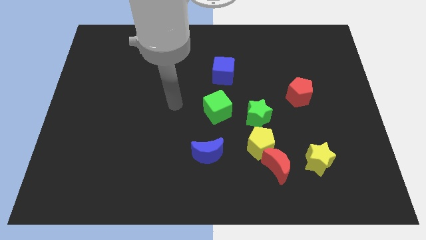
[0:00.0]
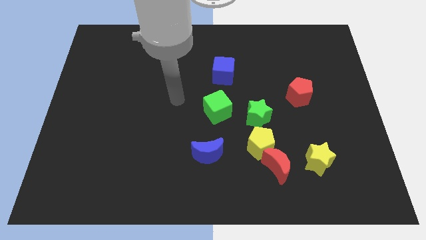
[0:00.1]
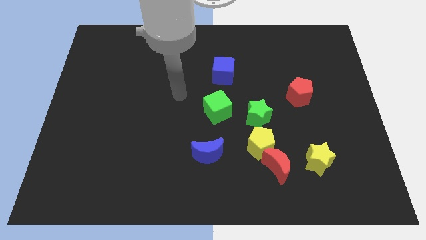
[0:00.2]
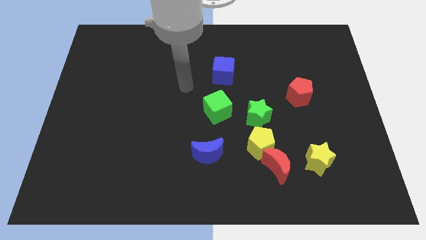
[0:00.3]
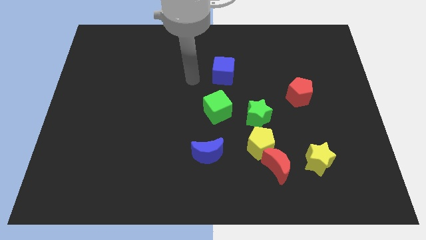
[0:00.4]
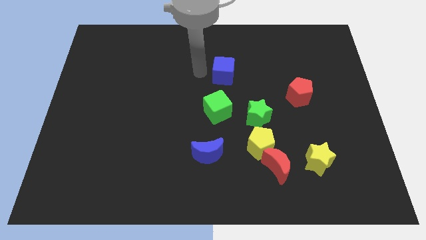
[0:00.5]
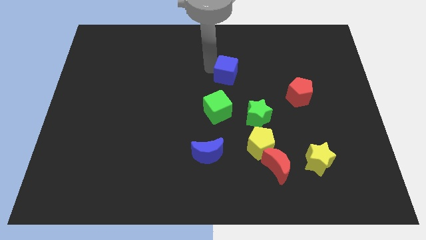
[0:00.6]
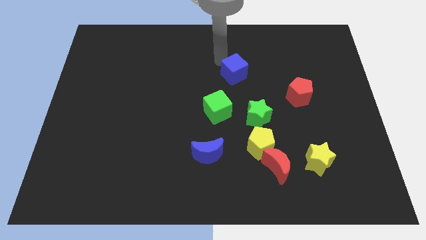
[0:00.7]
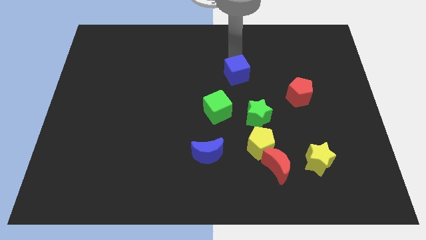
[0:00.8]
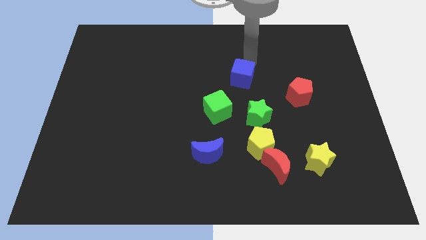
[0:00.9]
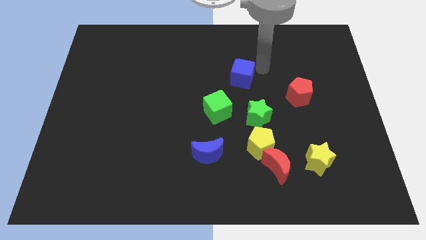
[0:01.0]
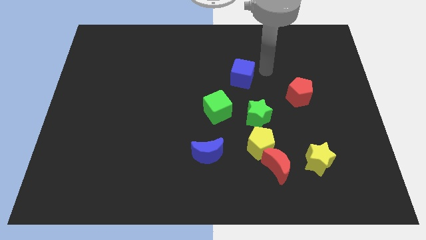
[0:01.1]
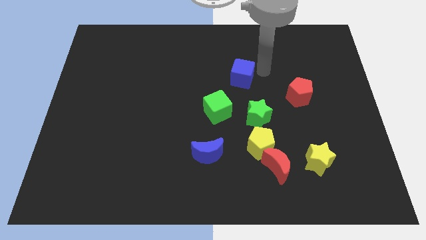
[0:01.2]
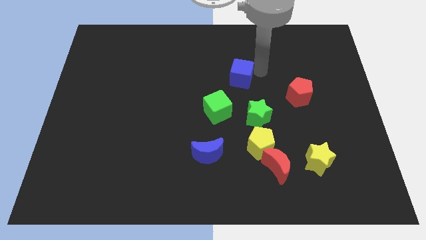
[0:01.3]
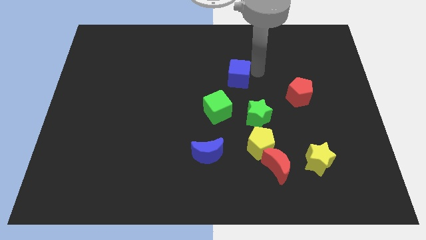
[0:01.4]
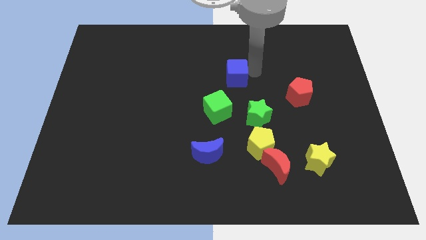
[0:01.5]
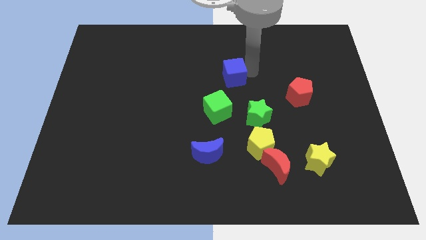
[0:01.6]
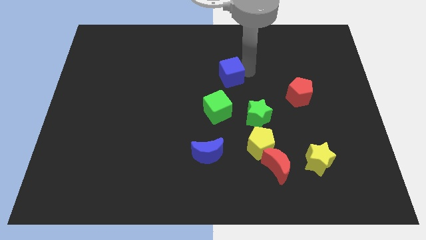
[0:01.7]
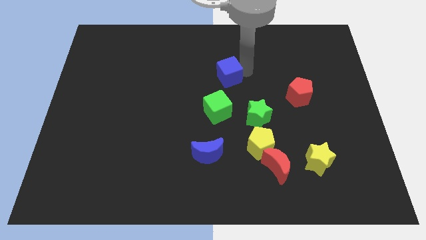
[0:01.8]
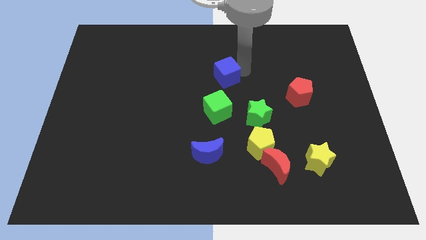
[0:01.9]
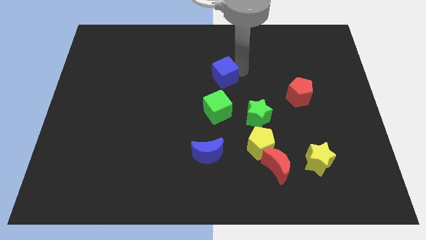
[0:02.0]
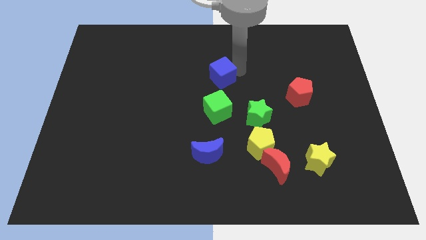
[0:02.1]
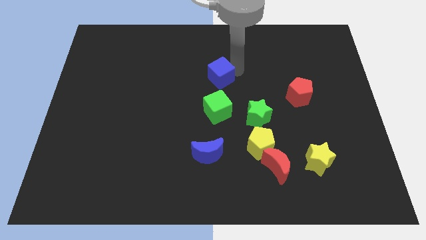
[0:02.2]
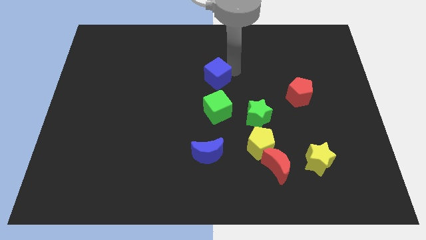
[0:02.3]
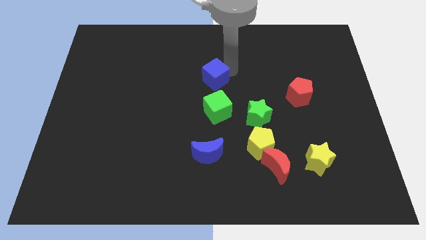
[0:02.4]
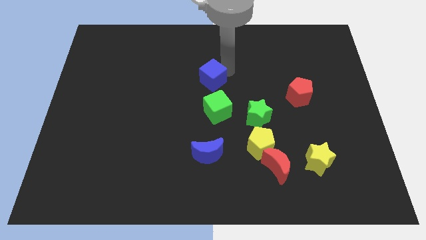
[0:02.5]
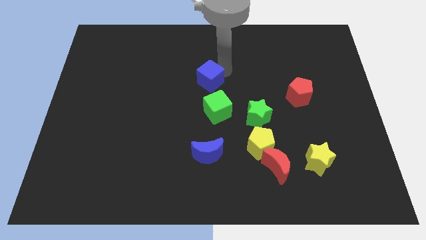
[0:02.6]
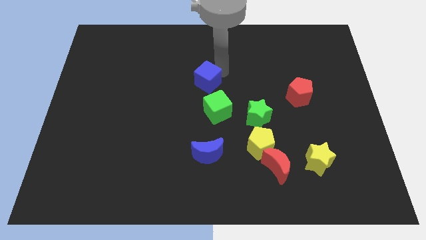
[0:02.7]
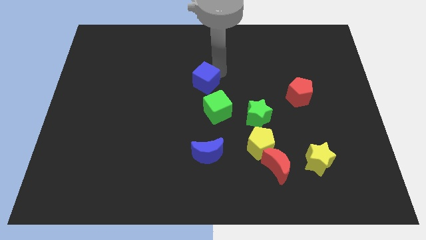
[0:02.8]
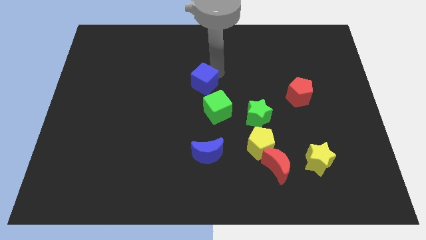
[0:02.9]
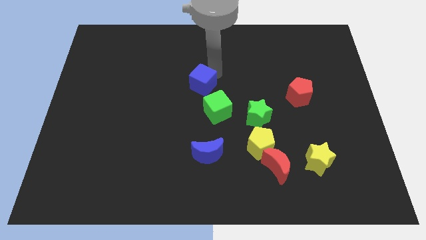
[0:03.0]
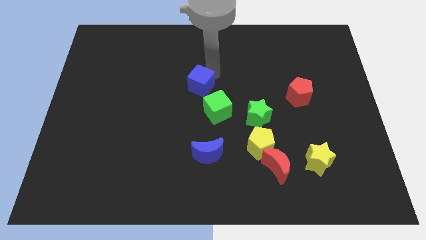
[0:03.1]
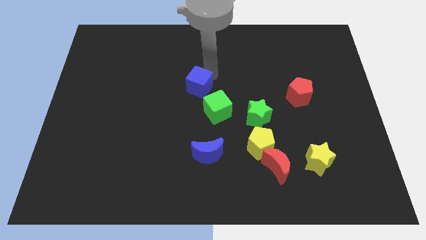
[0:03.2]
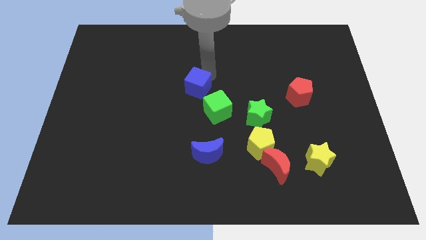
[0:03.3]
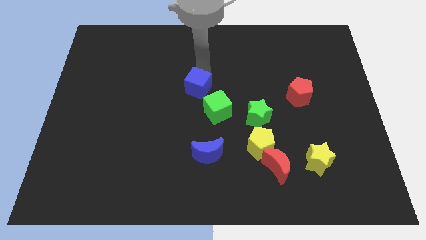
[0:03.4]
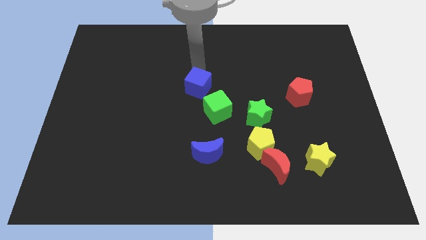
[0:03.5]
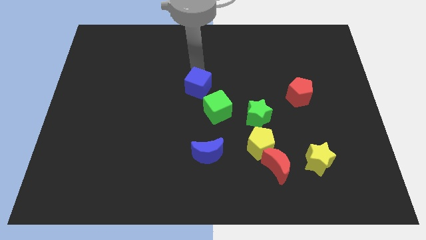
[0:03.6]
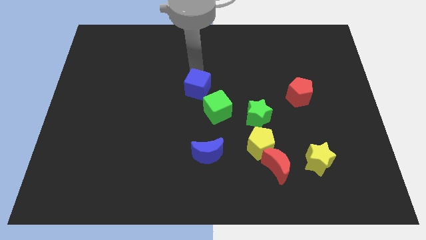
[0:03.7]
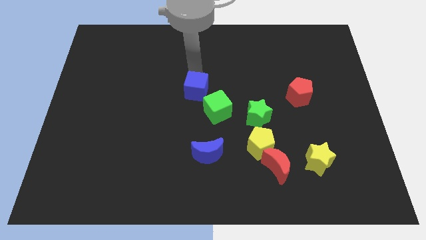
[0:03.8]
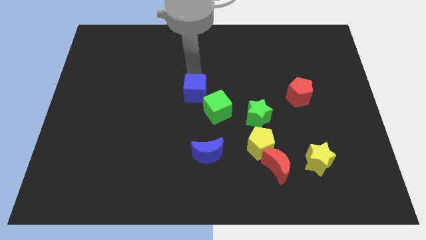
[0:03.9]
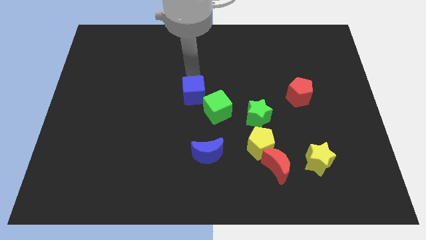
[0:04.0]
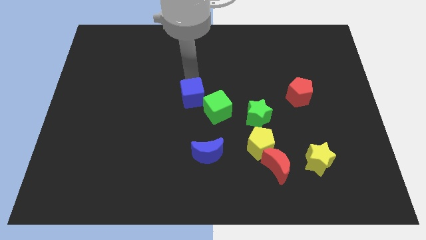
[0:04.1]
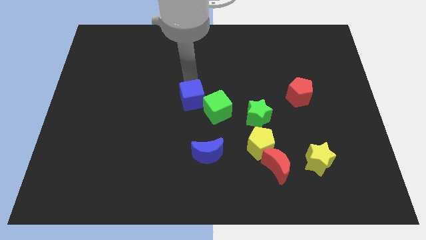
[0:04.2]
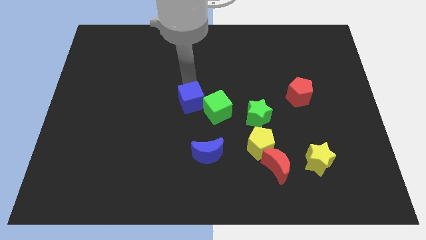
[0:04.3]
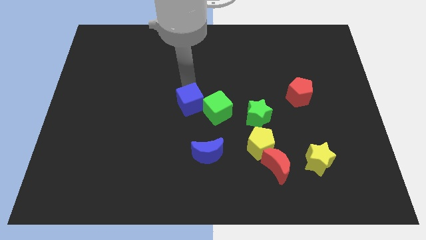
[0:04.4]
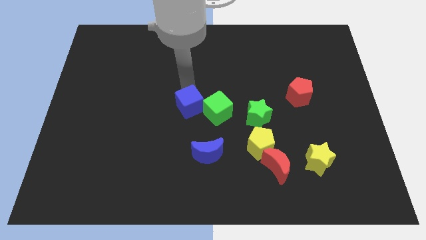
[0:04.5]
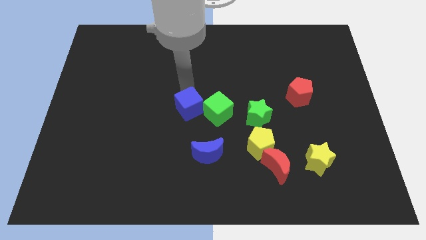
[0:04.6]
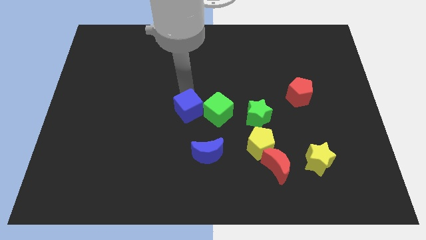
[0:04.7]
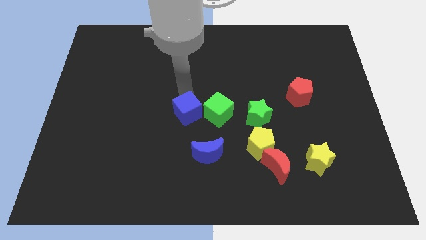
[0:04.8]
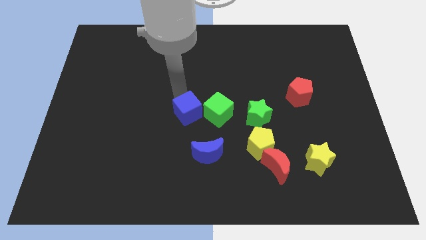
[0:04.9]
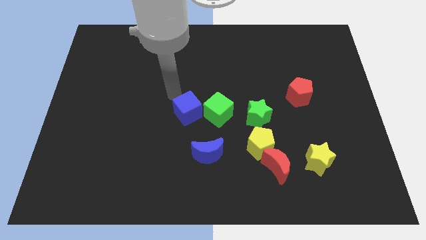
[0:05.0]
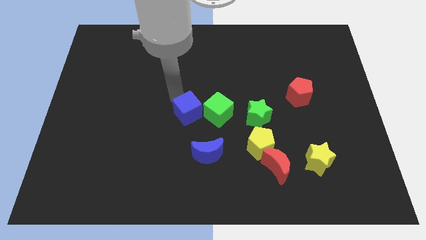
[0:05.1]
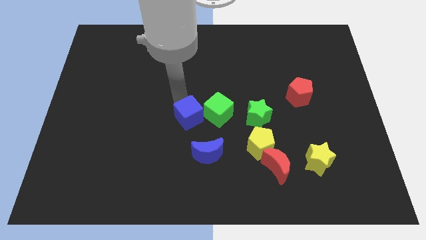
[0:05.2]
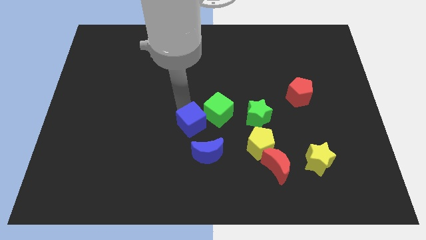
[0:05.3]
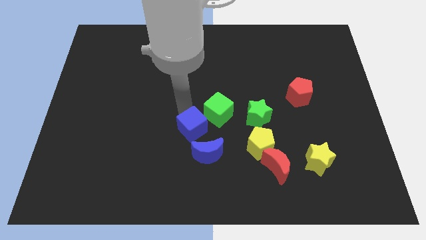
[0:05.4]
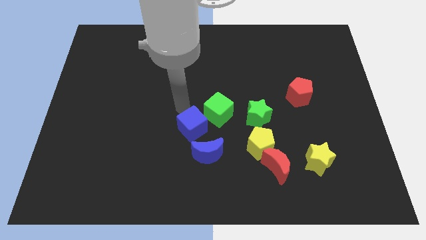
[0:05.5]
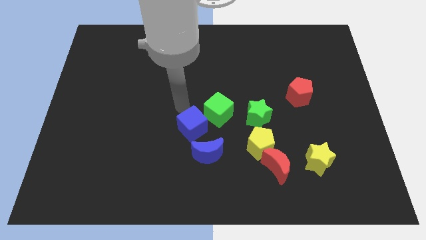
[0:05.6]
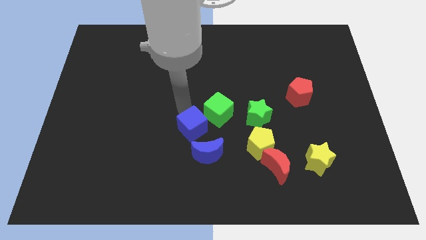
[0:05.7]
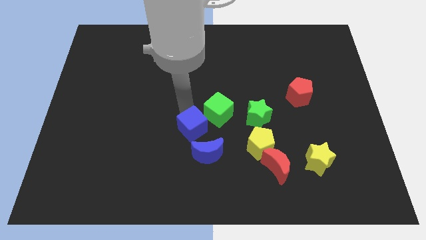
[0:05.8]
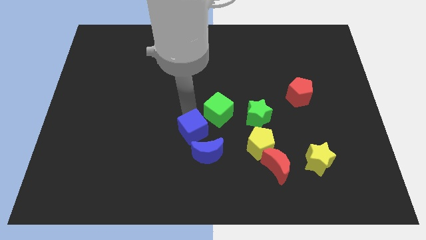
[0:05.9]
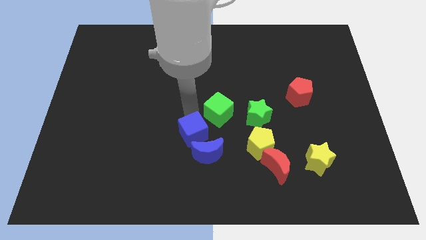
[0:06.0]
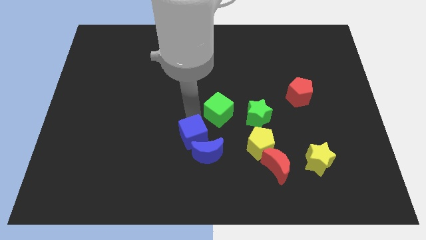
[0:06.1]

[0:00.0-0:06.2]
put the blue cube close to the blue moon

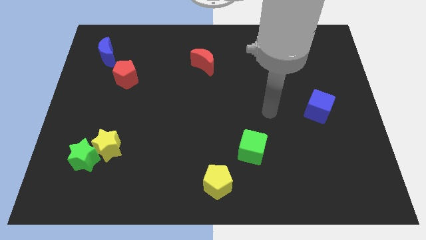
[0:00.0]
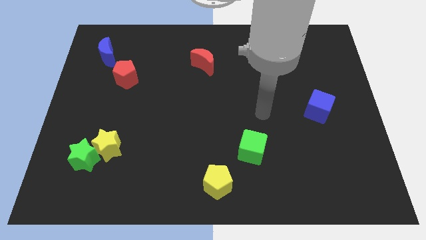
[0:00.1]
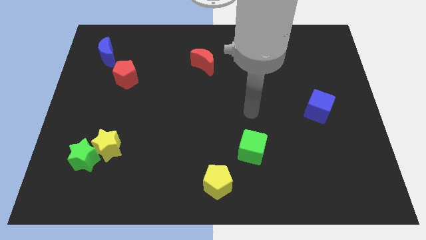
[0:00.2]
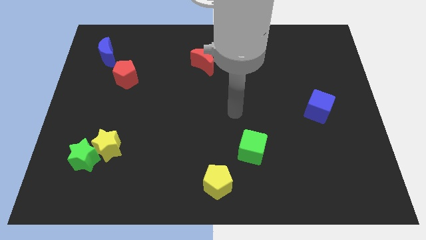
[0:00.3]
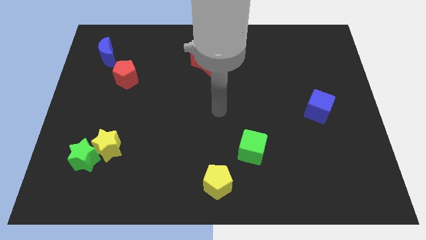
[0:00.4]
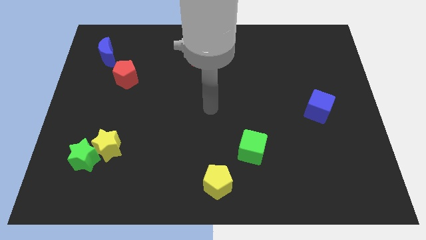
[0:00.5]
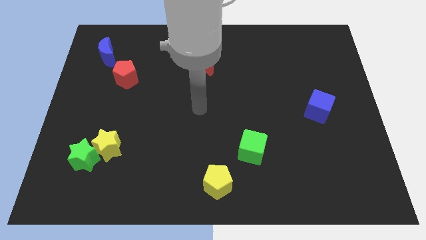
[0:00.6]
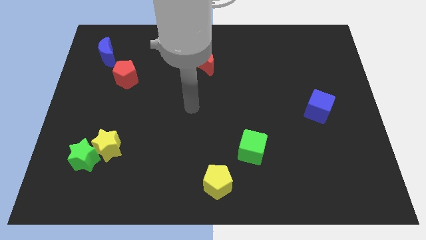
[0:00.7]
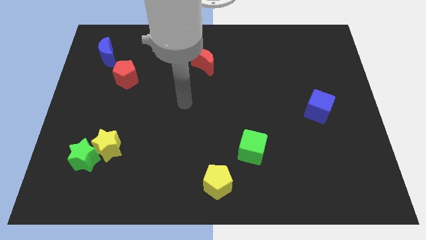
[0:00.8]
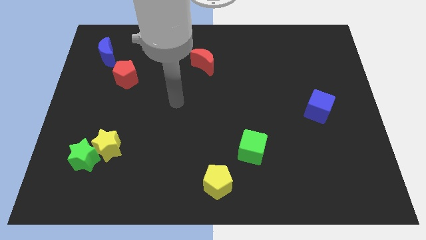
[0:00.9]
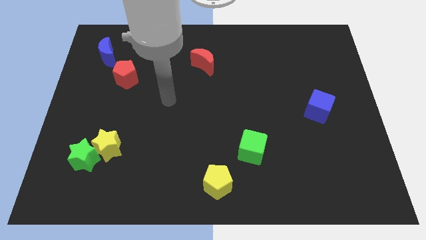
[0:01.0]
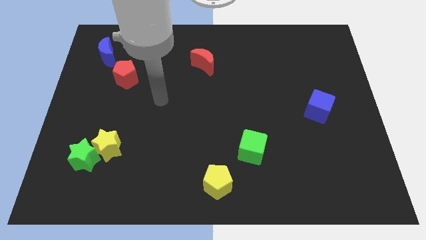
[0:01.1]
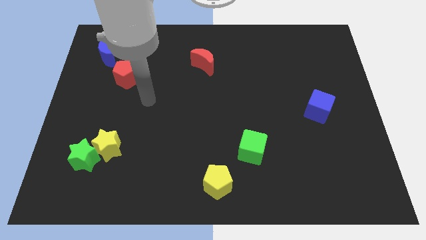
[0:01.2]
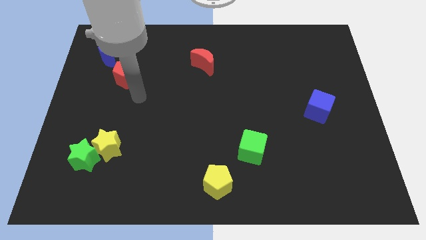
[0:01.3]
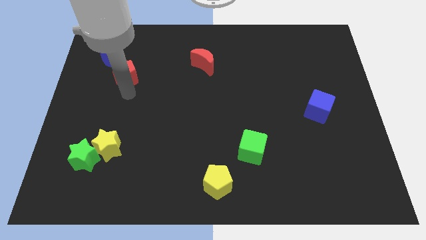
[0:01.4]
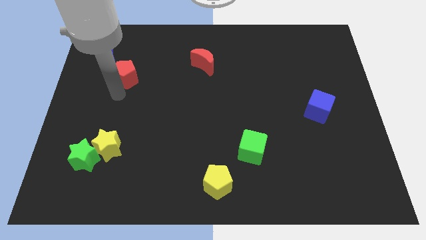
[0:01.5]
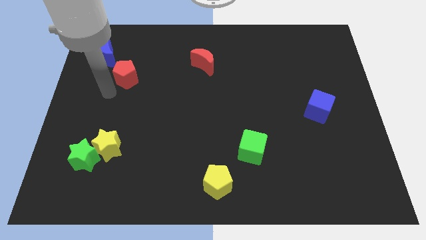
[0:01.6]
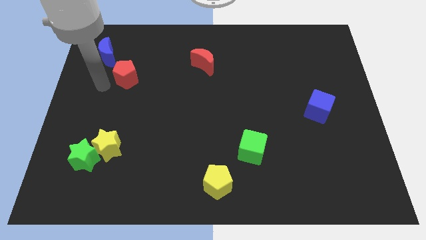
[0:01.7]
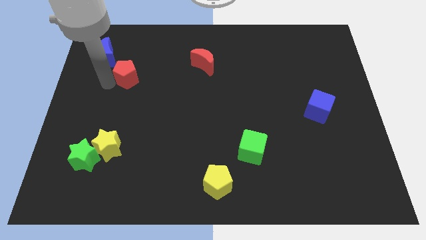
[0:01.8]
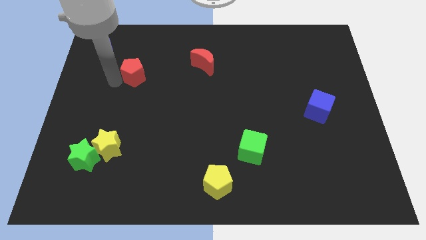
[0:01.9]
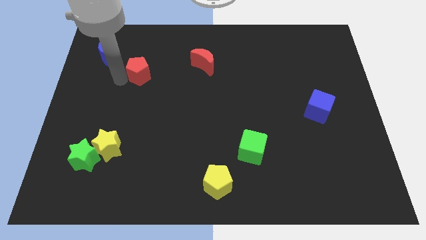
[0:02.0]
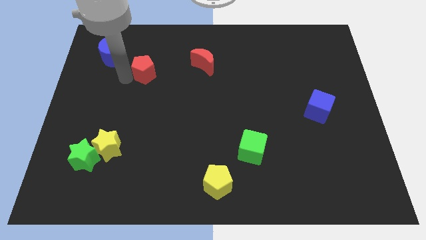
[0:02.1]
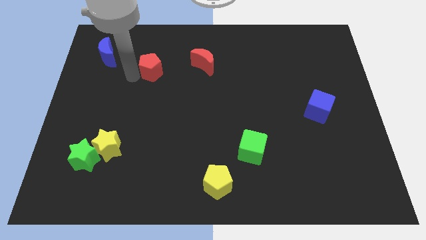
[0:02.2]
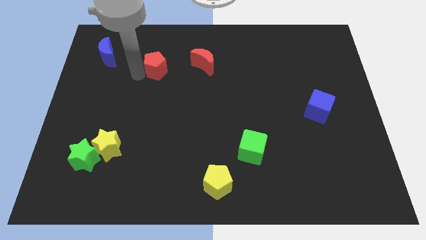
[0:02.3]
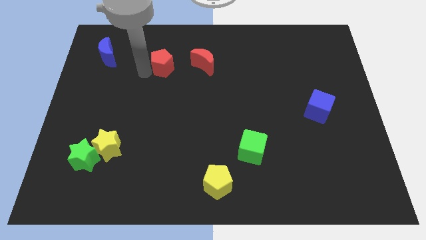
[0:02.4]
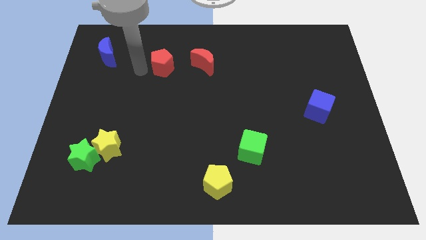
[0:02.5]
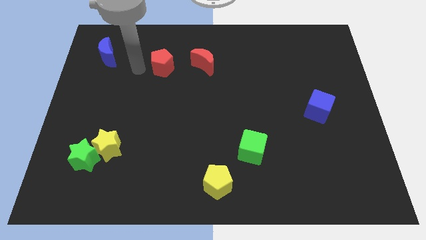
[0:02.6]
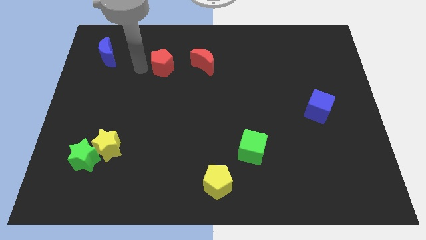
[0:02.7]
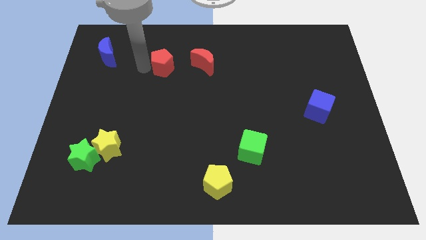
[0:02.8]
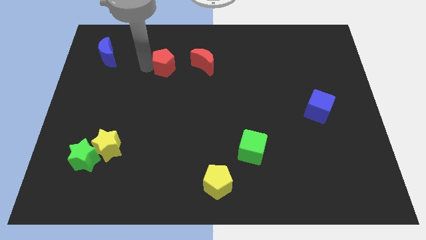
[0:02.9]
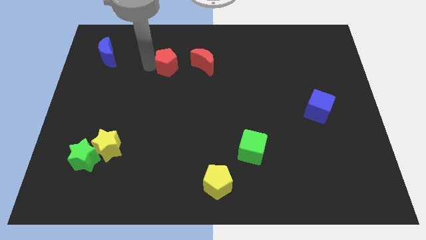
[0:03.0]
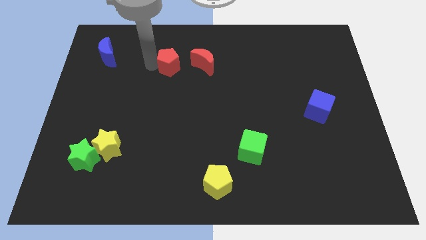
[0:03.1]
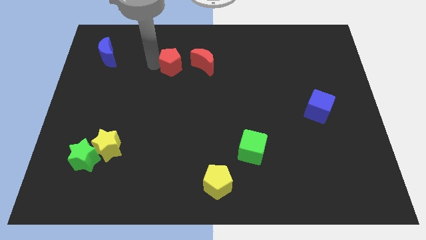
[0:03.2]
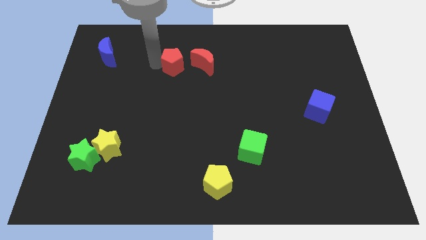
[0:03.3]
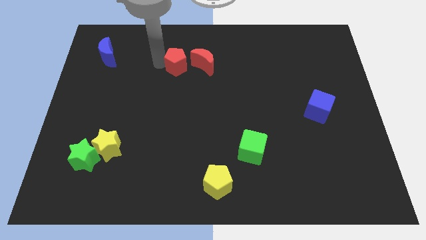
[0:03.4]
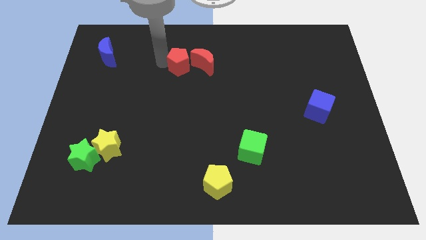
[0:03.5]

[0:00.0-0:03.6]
put the red pentagon next to the red moon
